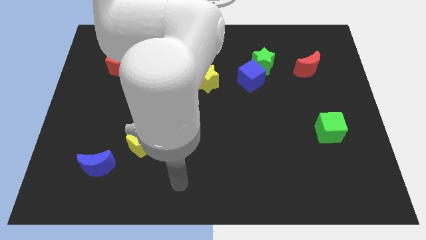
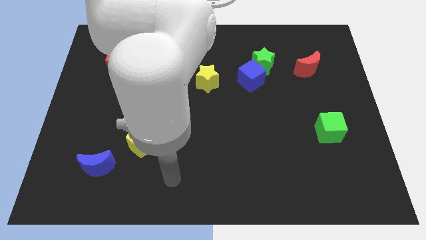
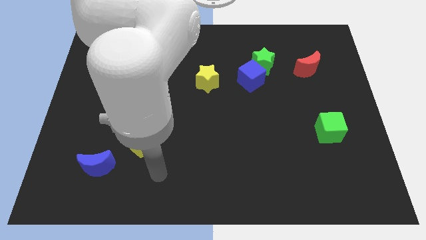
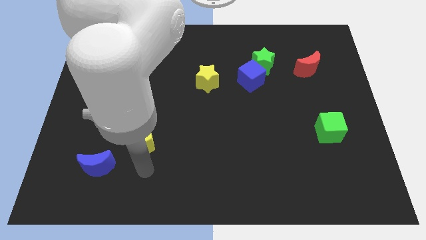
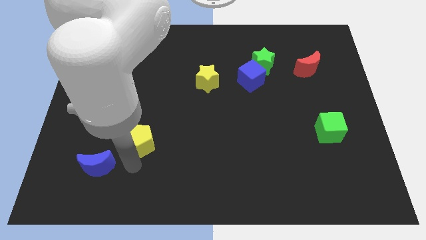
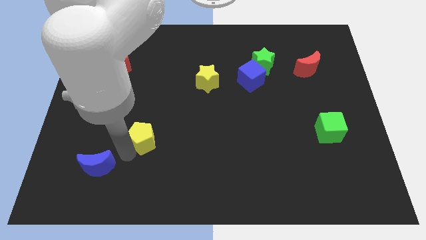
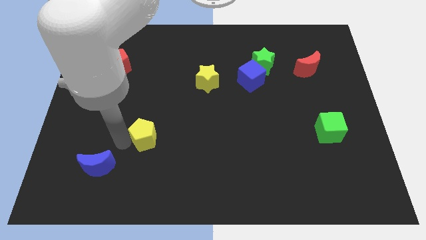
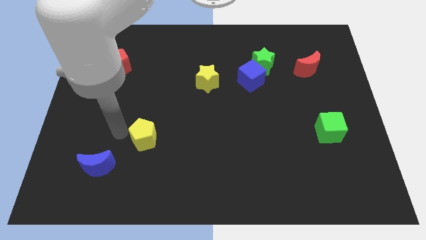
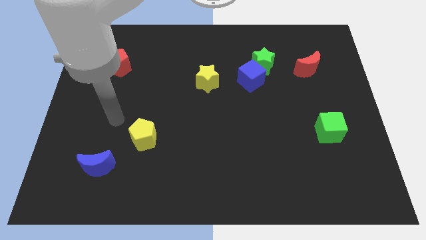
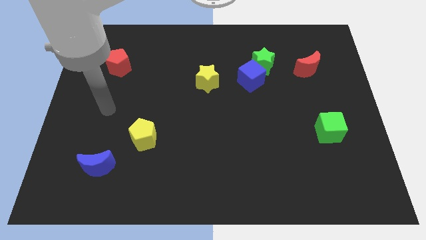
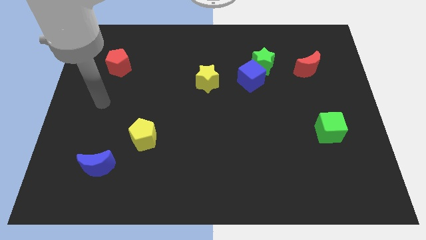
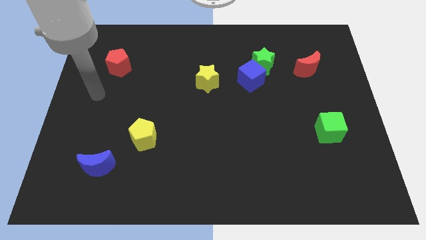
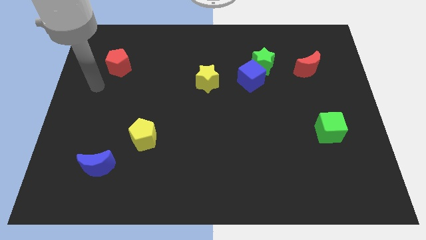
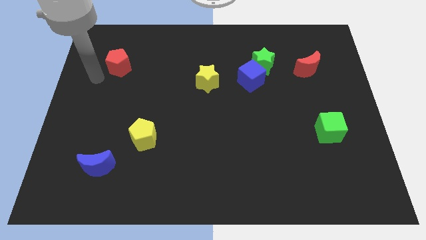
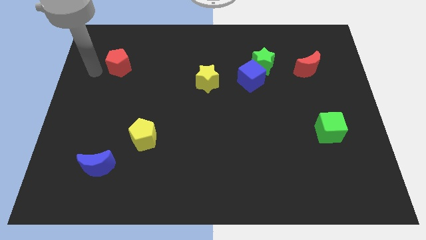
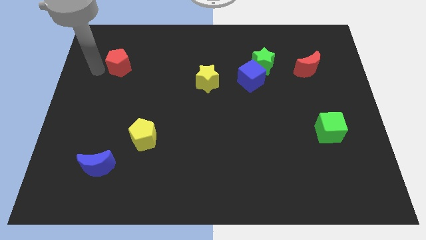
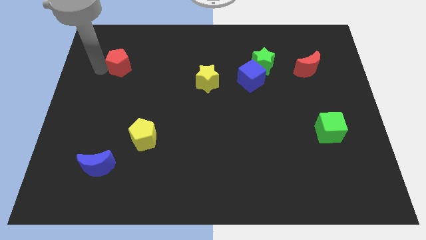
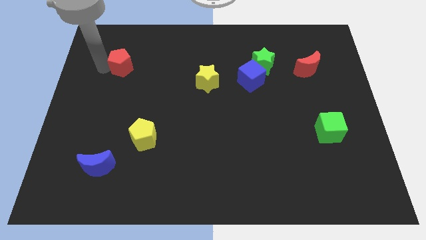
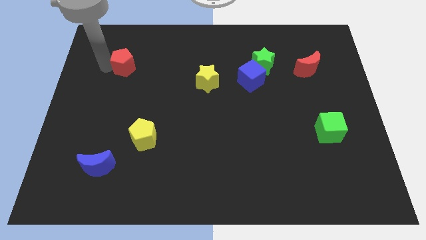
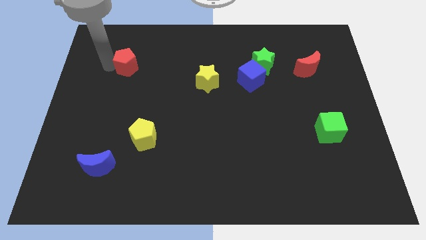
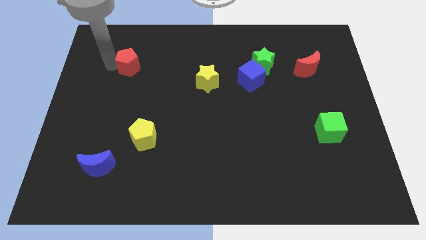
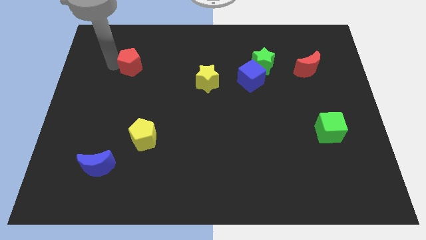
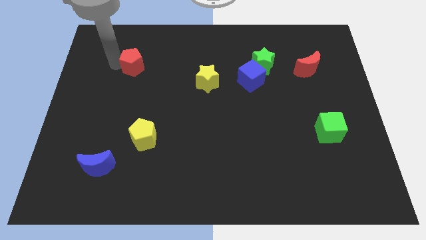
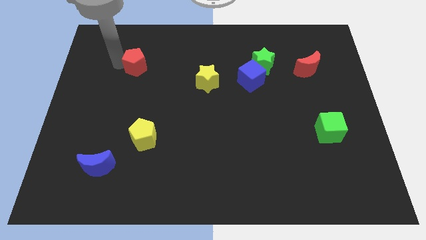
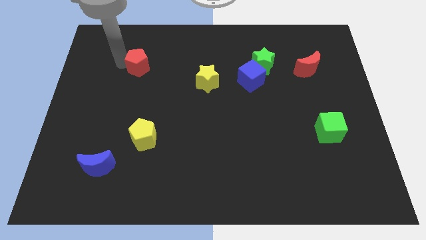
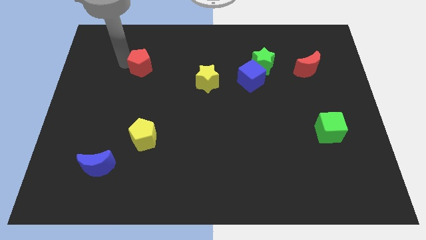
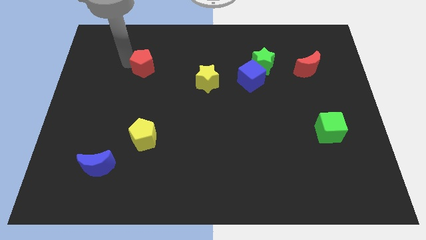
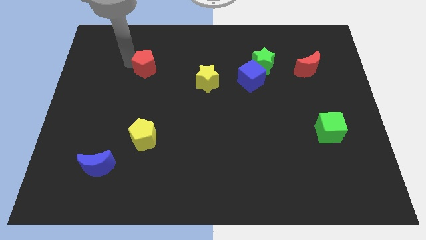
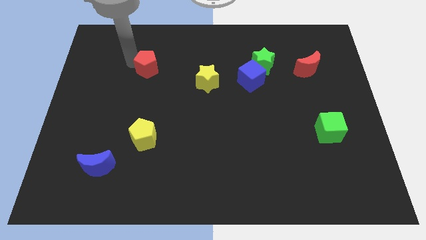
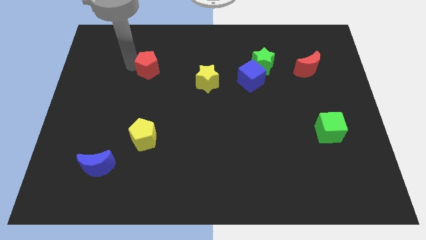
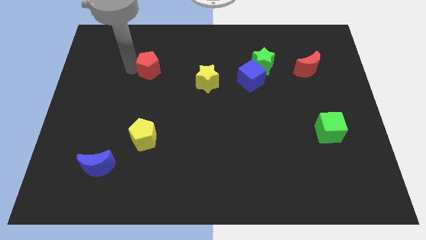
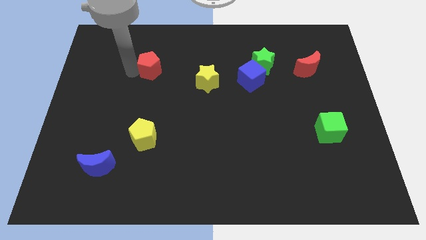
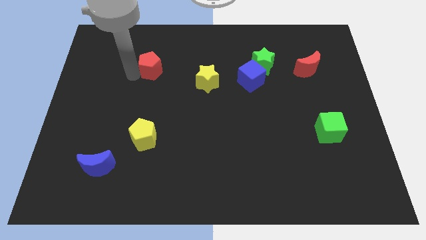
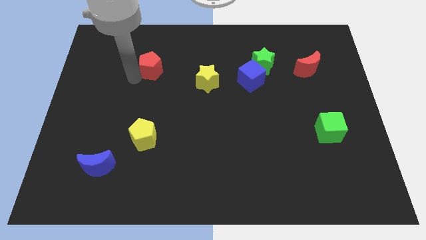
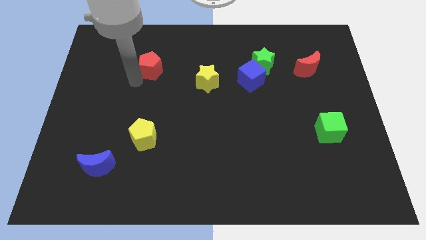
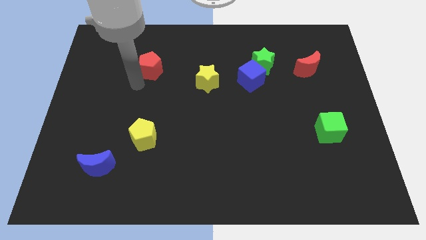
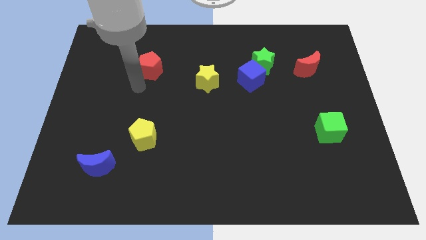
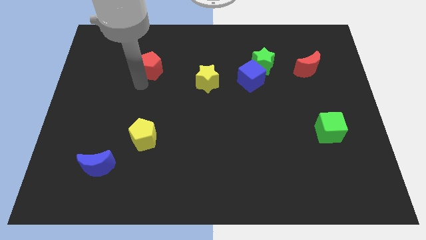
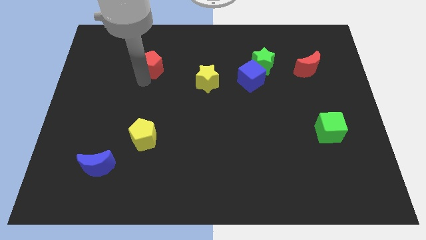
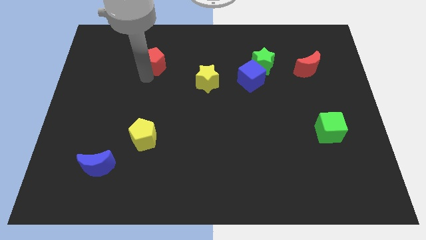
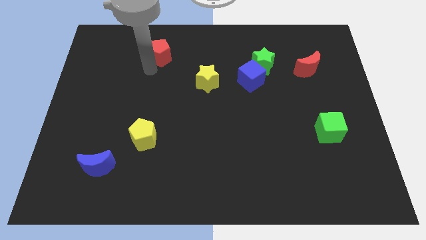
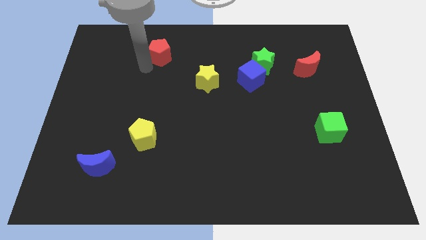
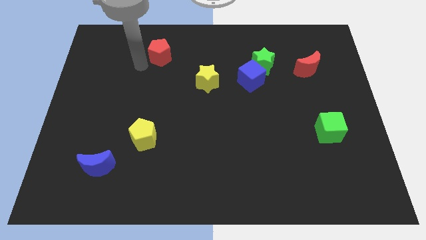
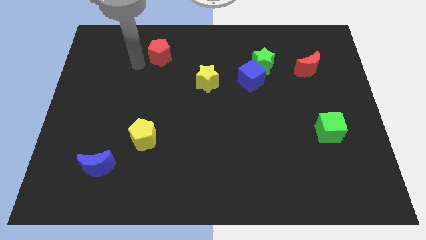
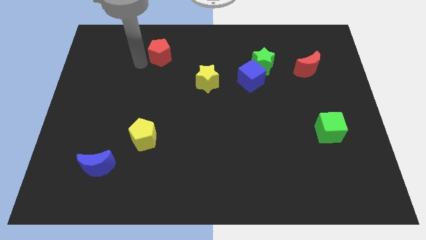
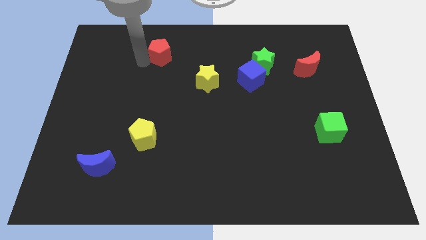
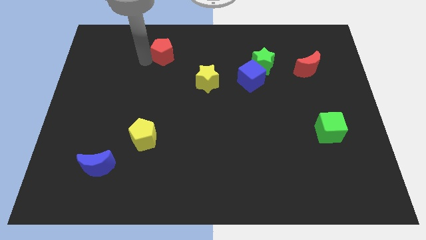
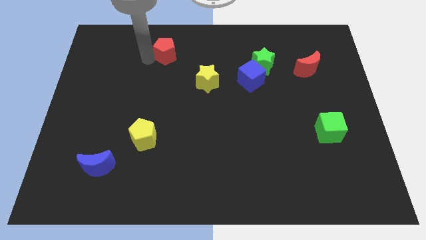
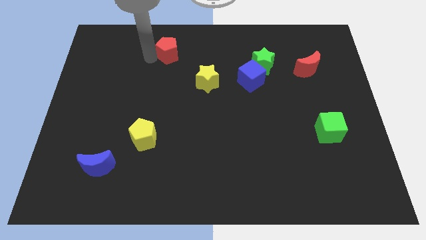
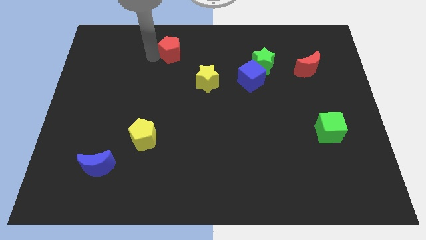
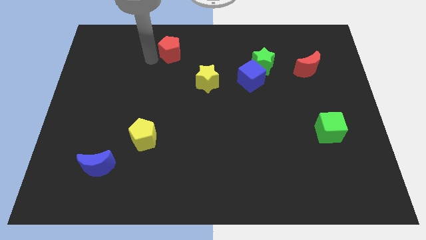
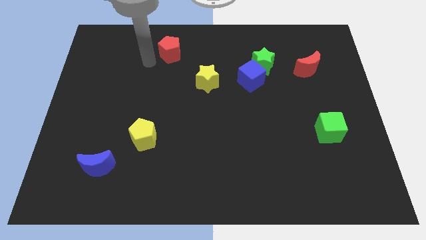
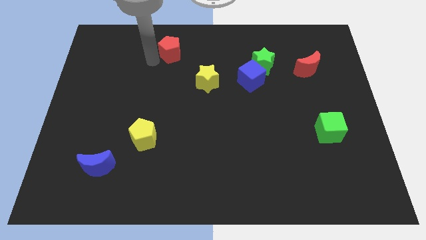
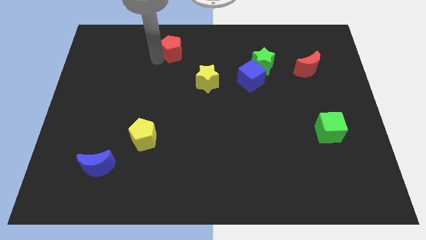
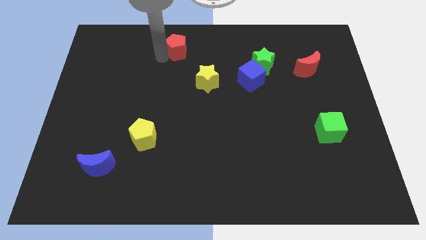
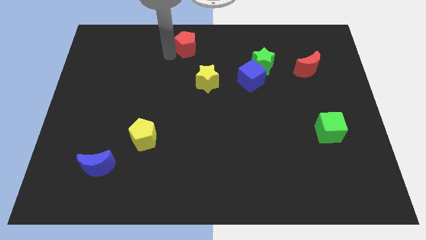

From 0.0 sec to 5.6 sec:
slide the red pentagon to the towards your base

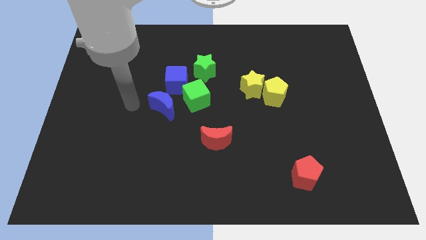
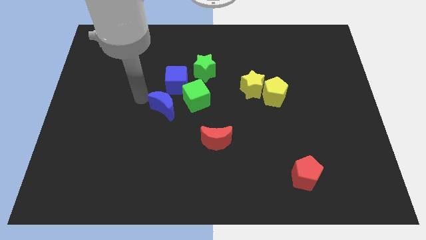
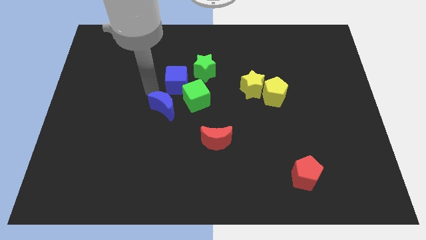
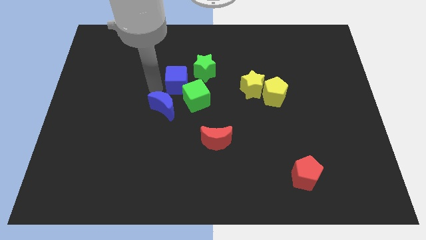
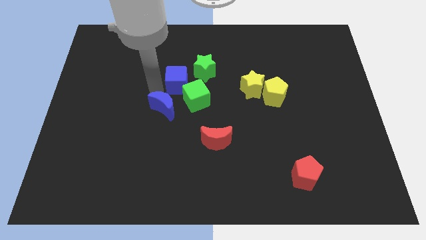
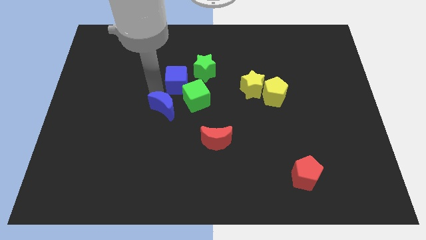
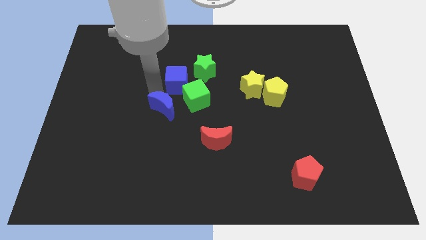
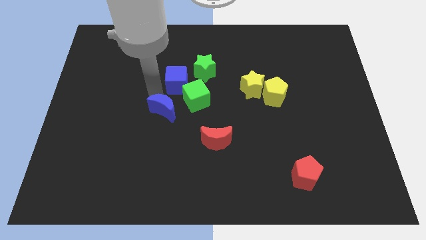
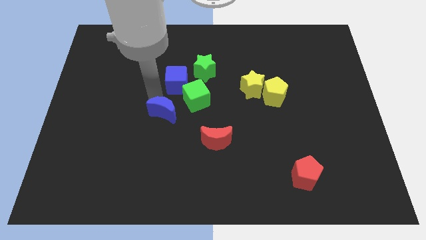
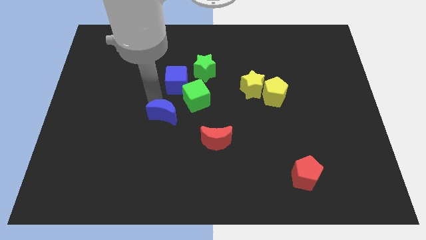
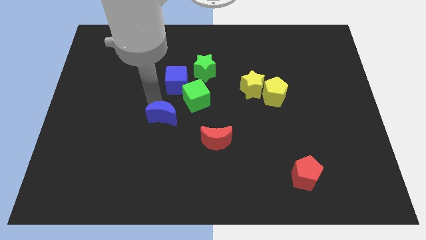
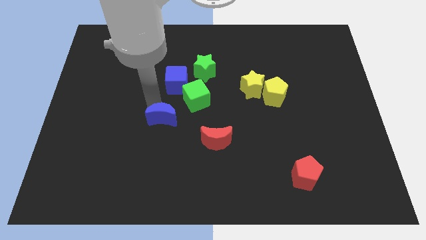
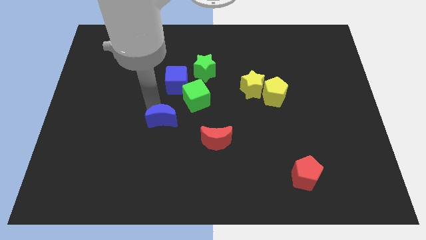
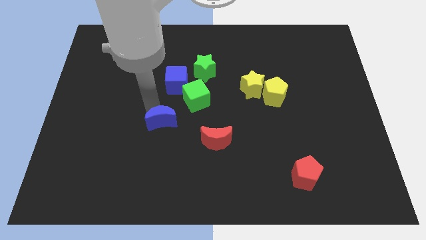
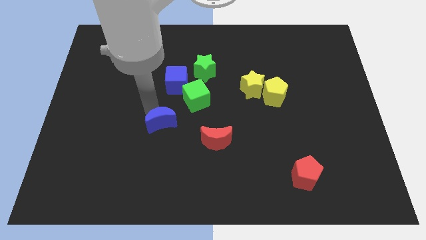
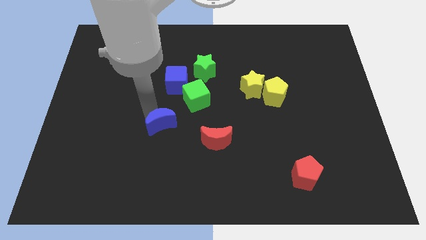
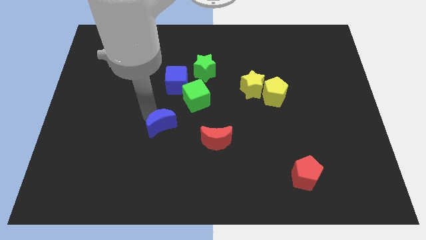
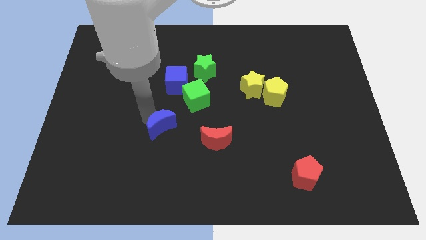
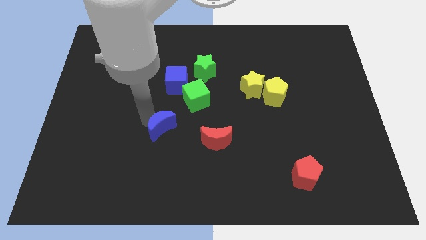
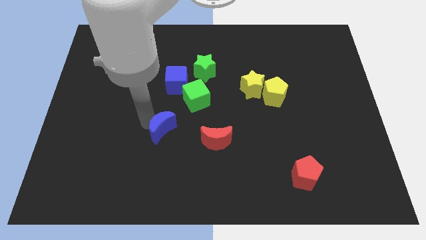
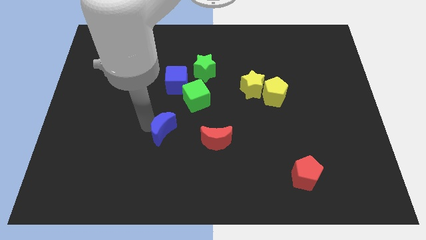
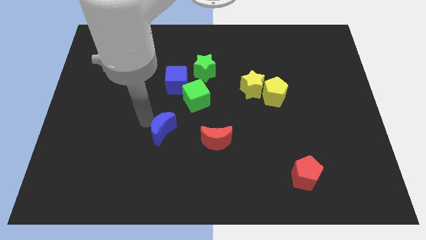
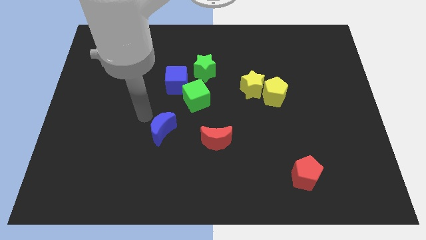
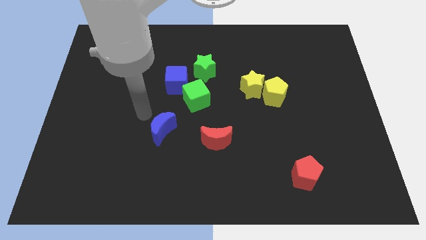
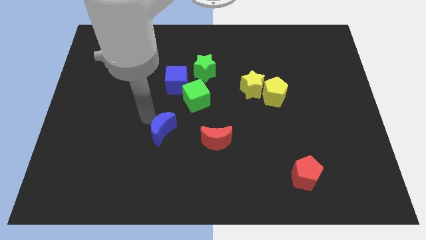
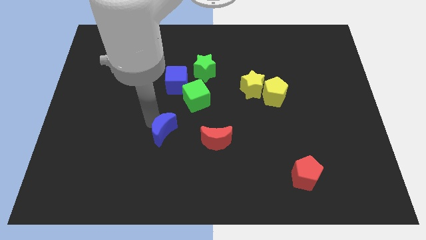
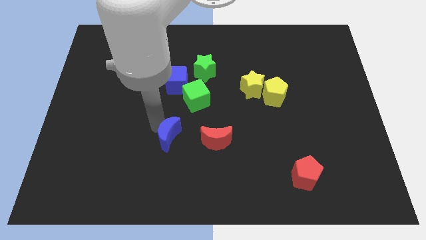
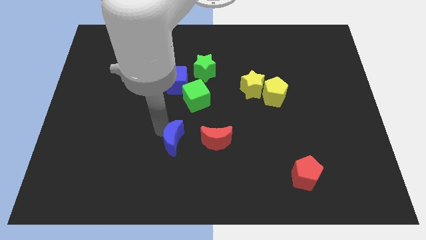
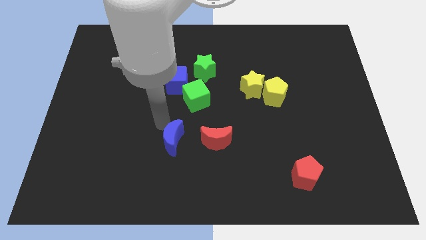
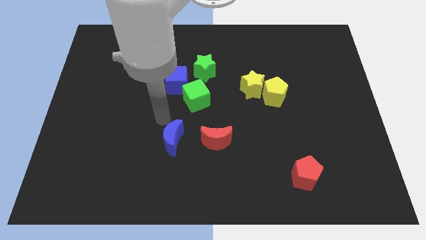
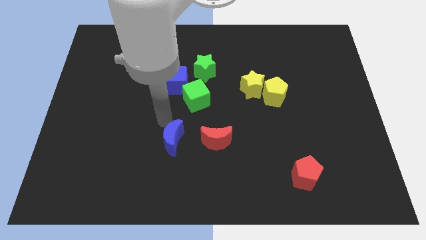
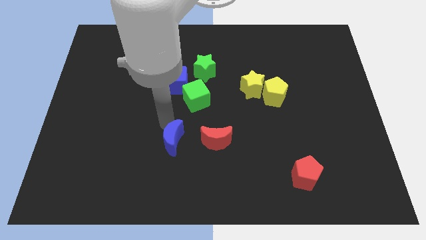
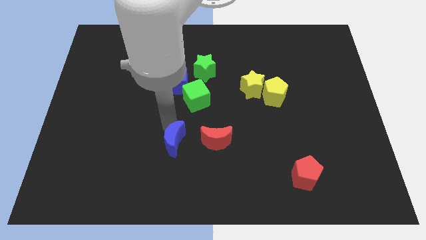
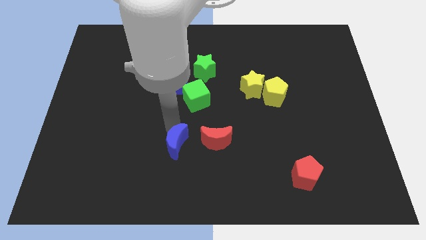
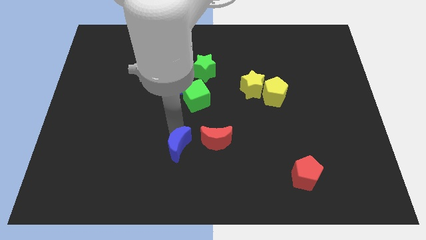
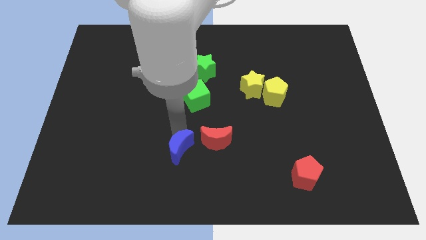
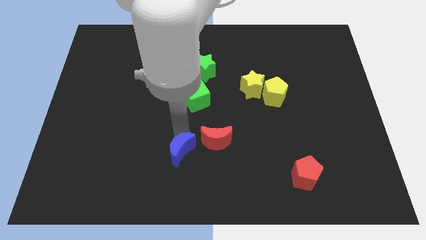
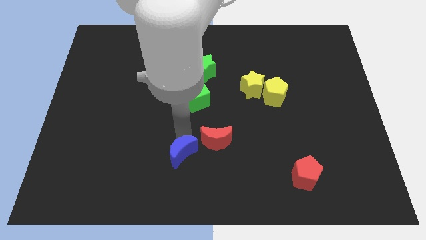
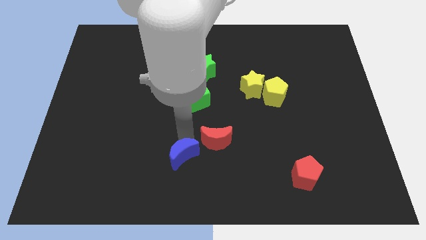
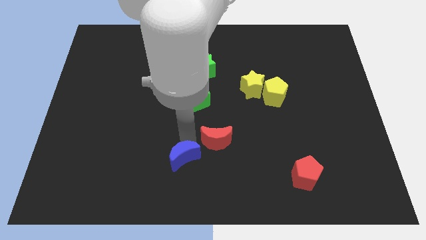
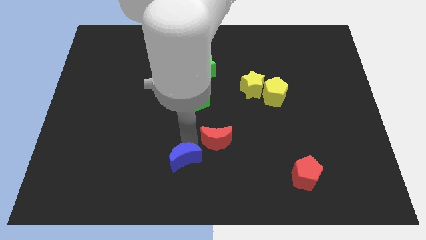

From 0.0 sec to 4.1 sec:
move the blue moon to the bottom
